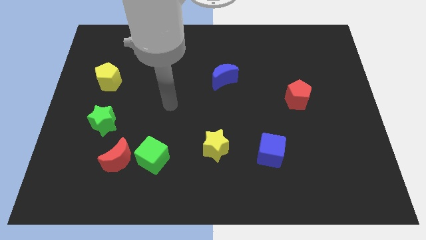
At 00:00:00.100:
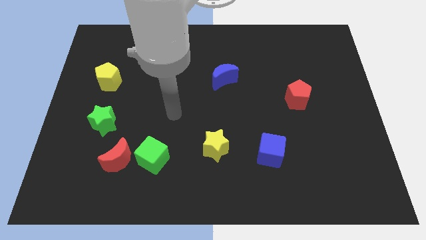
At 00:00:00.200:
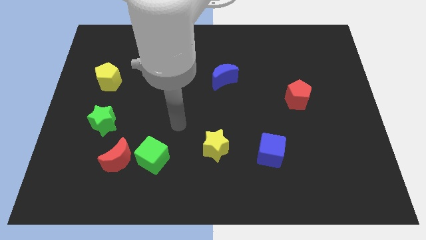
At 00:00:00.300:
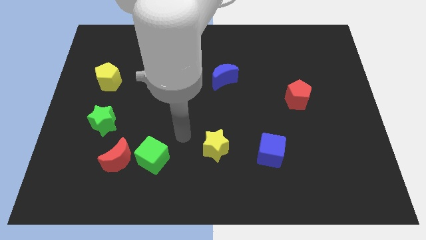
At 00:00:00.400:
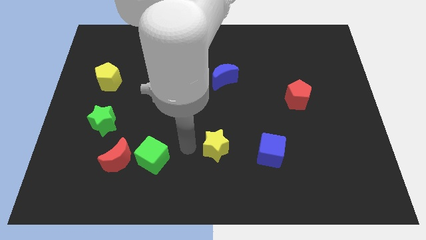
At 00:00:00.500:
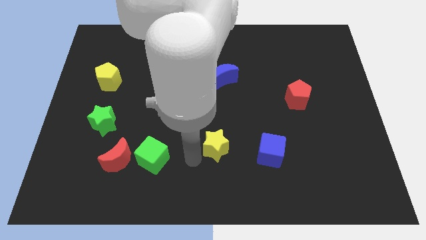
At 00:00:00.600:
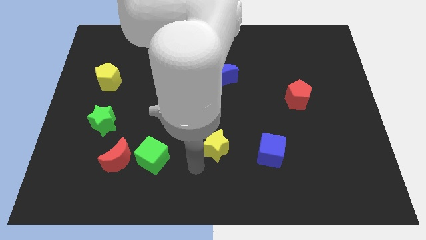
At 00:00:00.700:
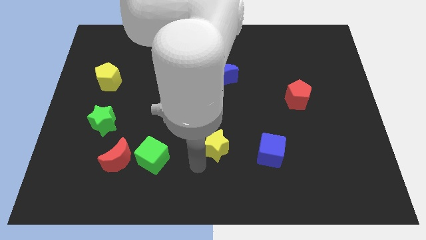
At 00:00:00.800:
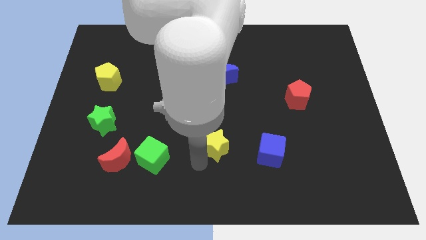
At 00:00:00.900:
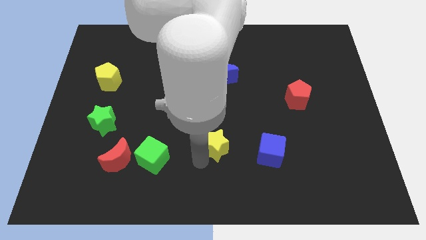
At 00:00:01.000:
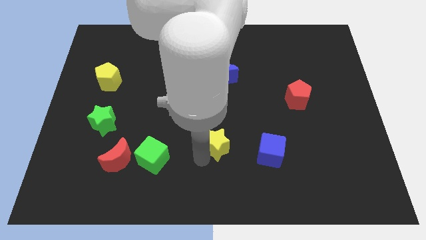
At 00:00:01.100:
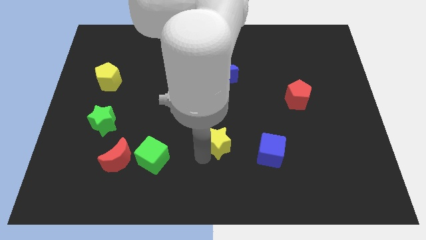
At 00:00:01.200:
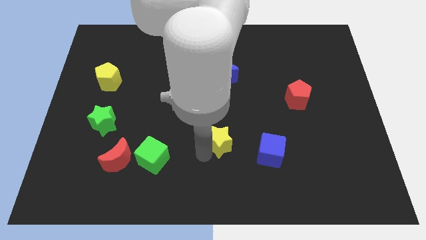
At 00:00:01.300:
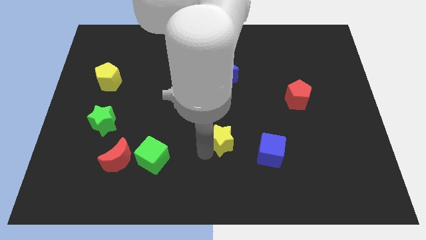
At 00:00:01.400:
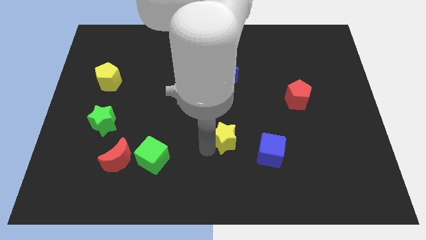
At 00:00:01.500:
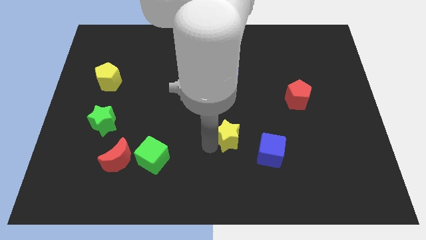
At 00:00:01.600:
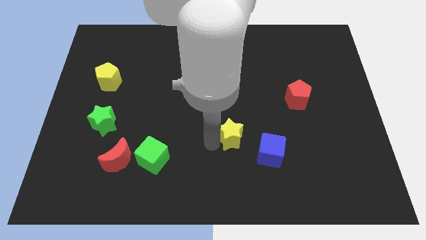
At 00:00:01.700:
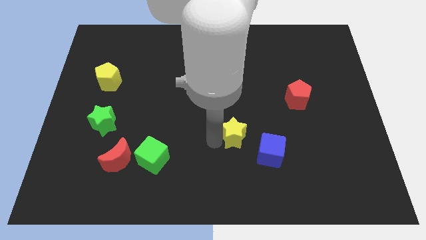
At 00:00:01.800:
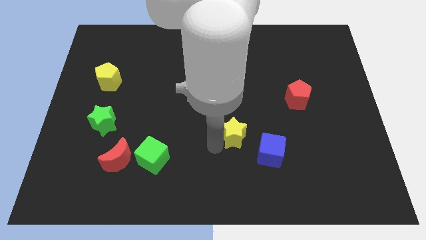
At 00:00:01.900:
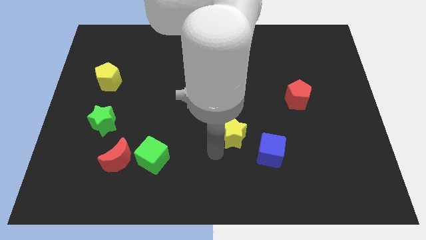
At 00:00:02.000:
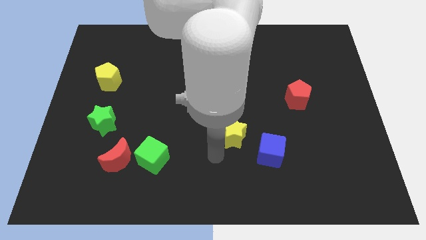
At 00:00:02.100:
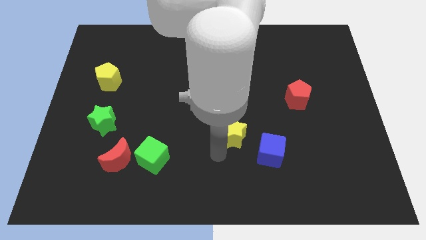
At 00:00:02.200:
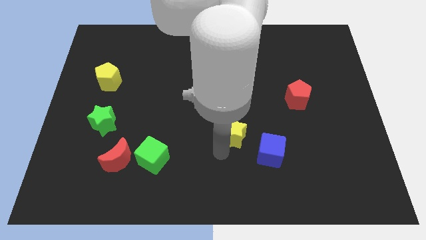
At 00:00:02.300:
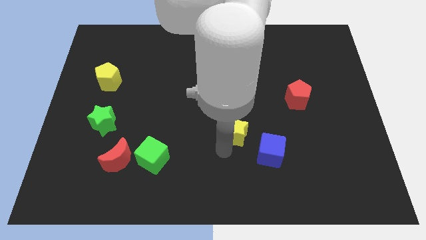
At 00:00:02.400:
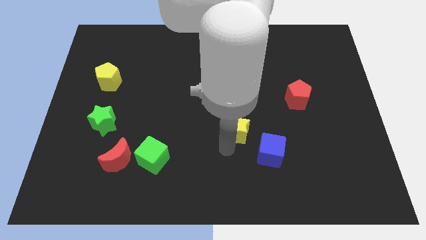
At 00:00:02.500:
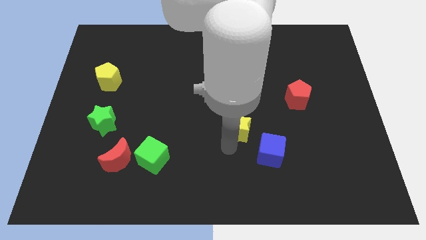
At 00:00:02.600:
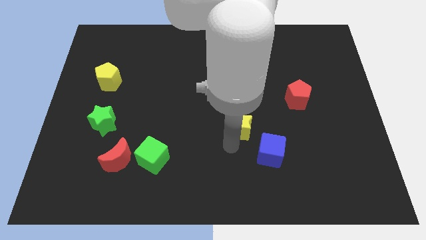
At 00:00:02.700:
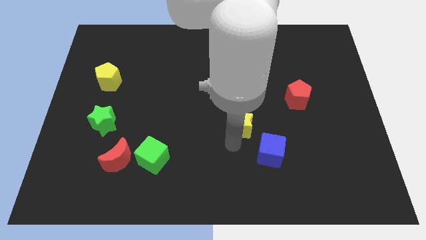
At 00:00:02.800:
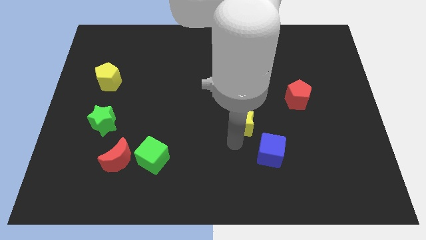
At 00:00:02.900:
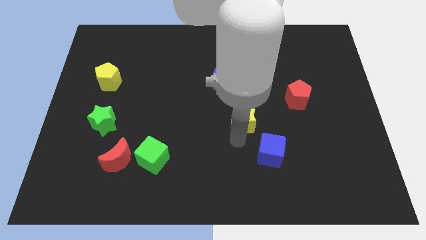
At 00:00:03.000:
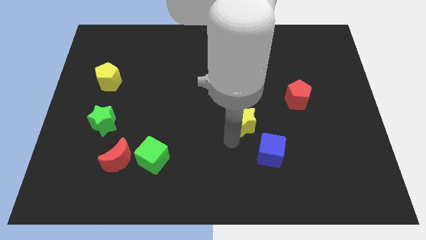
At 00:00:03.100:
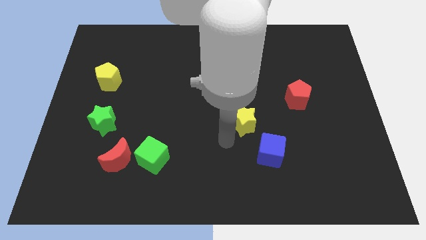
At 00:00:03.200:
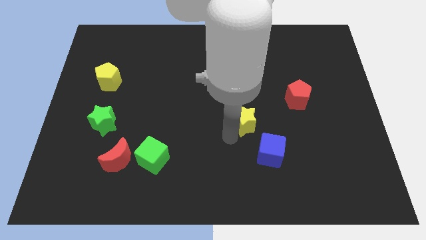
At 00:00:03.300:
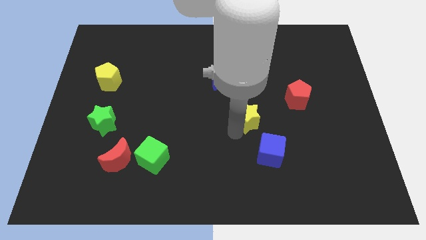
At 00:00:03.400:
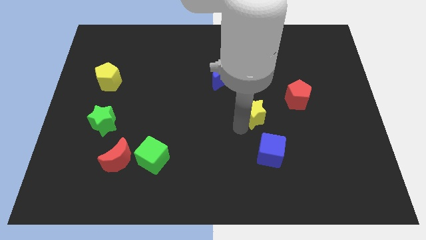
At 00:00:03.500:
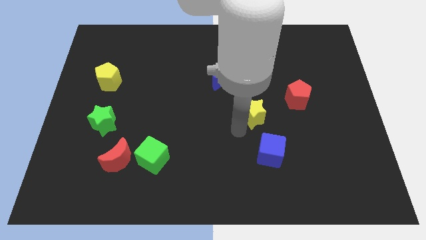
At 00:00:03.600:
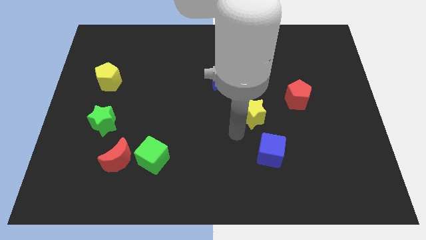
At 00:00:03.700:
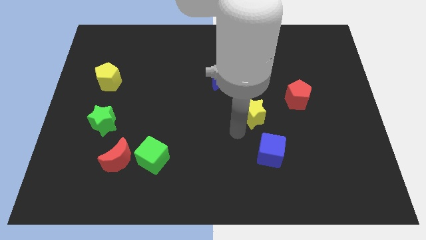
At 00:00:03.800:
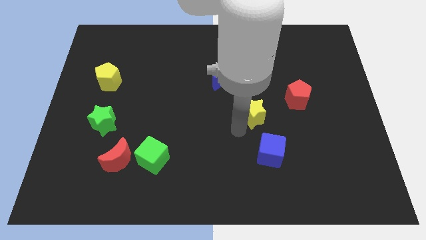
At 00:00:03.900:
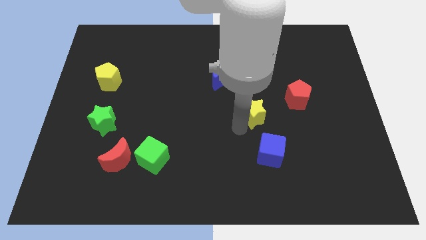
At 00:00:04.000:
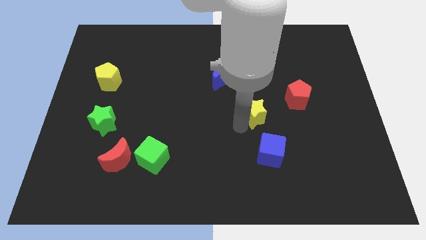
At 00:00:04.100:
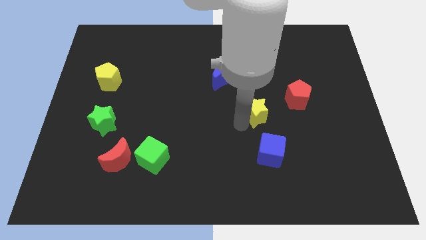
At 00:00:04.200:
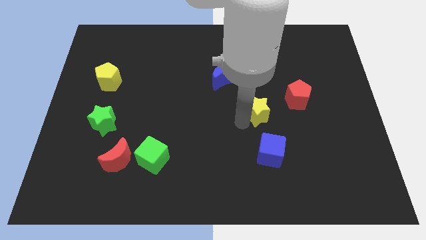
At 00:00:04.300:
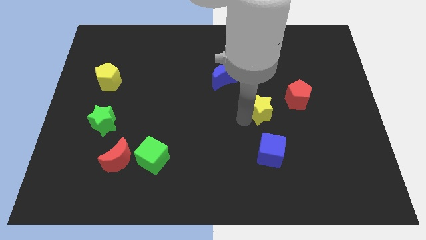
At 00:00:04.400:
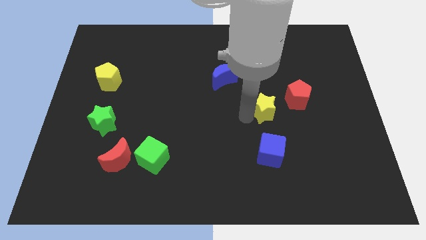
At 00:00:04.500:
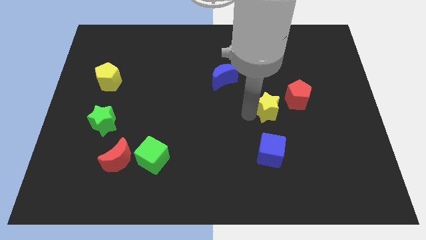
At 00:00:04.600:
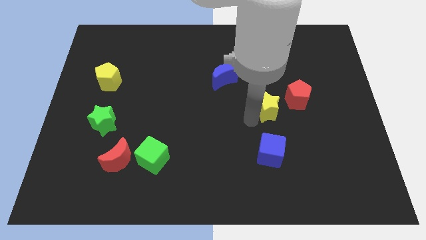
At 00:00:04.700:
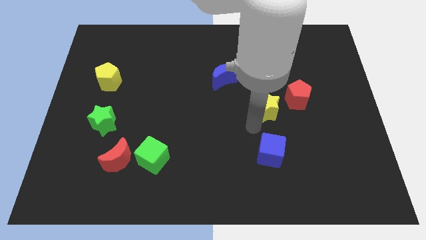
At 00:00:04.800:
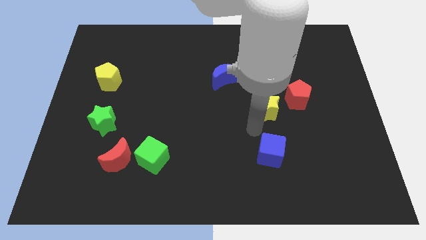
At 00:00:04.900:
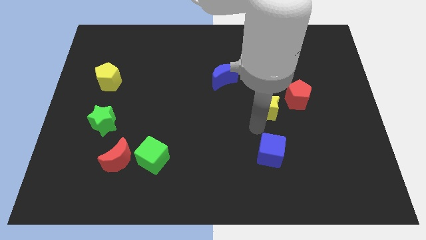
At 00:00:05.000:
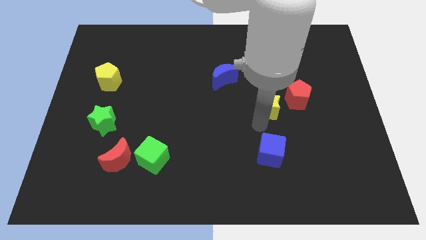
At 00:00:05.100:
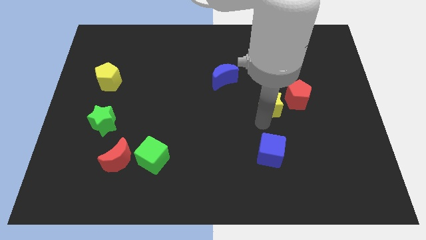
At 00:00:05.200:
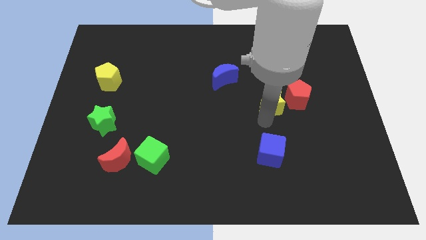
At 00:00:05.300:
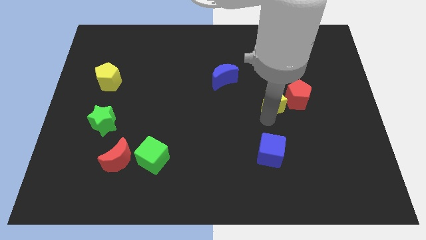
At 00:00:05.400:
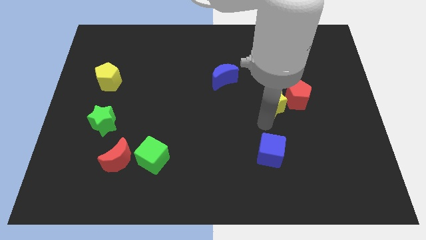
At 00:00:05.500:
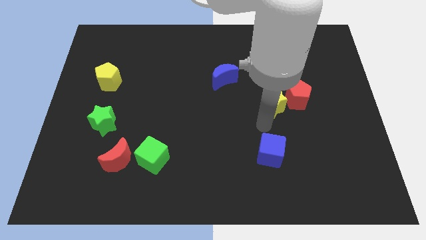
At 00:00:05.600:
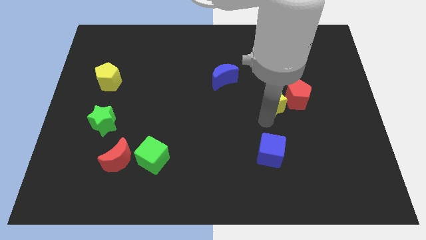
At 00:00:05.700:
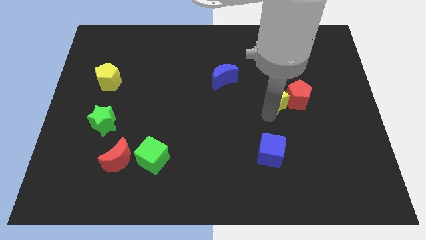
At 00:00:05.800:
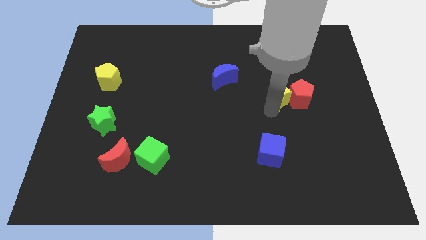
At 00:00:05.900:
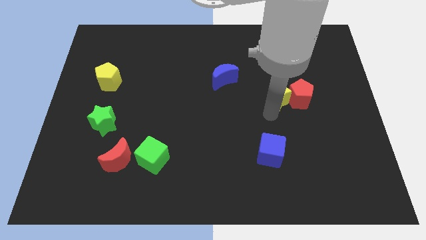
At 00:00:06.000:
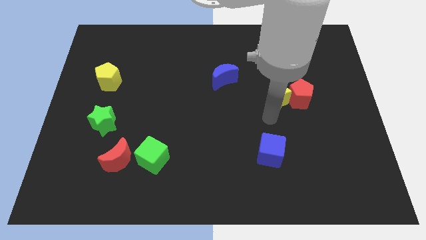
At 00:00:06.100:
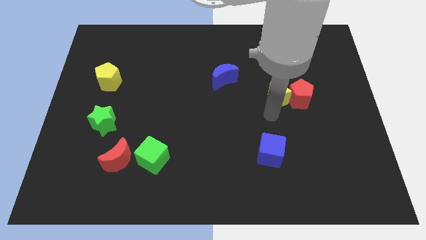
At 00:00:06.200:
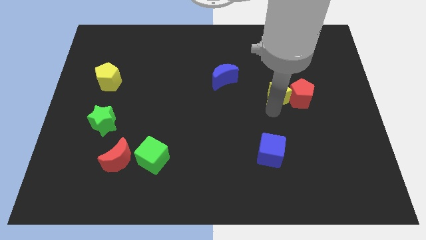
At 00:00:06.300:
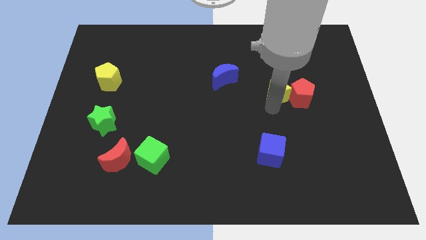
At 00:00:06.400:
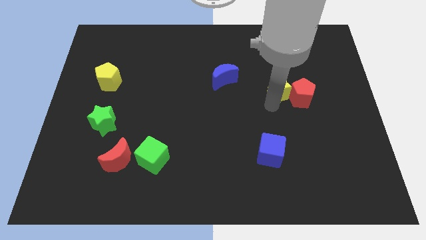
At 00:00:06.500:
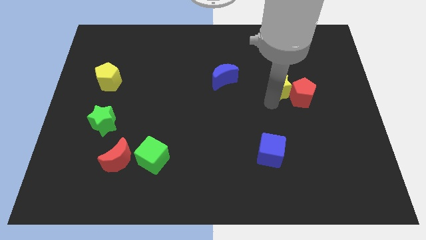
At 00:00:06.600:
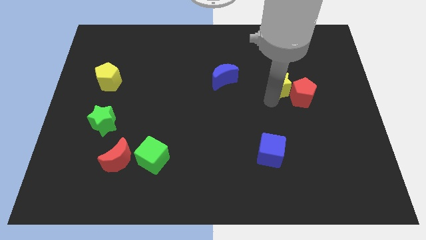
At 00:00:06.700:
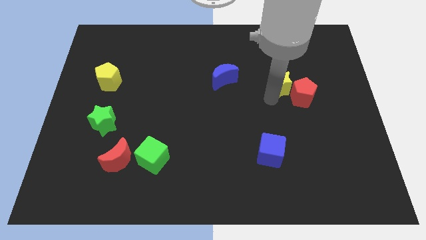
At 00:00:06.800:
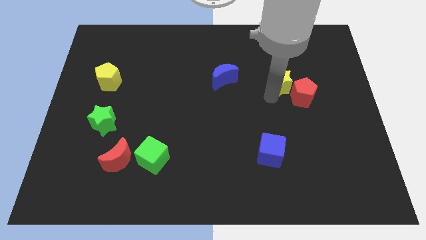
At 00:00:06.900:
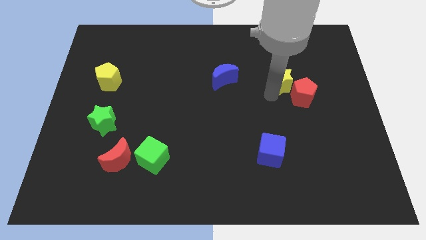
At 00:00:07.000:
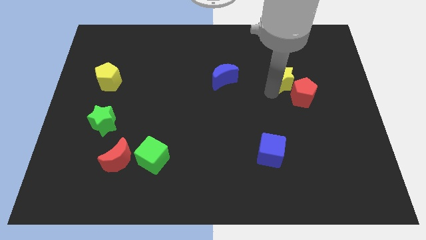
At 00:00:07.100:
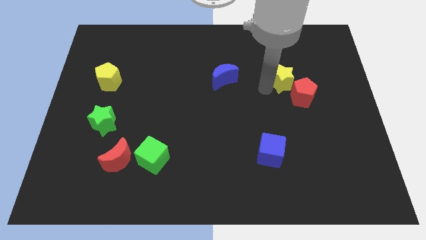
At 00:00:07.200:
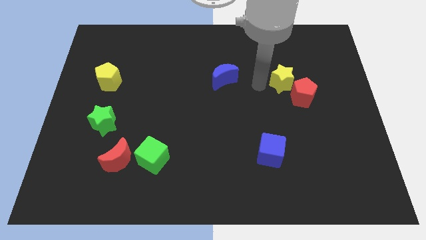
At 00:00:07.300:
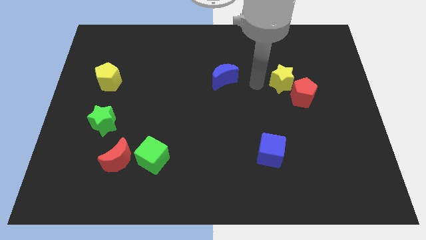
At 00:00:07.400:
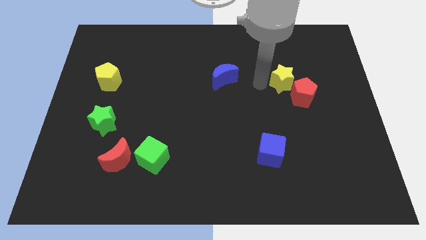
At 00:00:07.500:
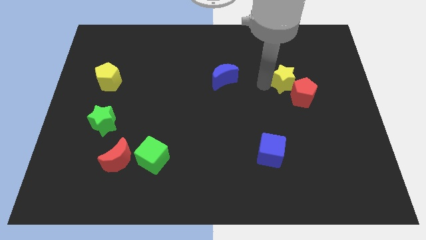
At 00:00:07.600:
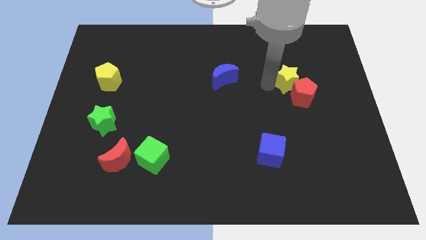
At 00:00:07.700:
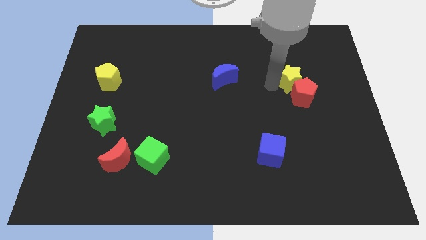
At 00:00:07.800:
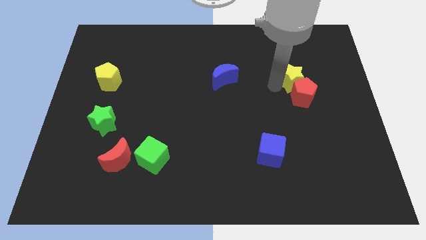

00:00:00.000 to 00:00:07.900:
push the yellow star to the top right of the red pentagon
